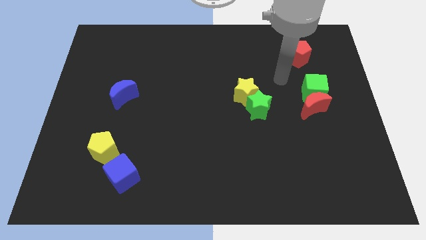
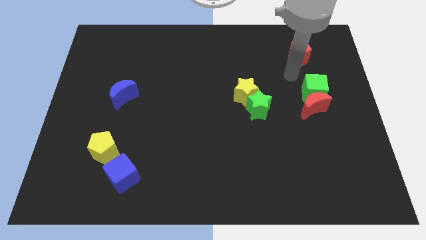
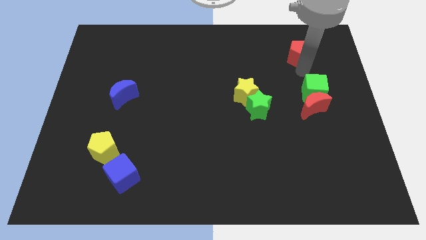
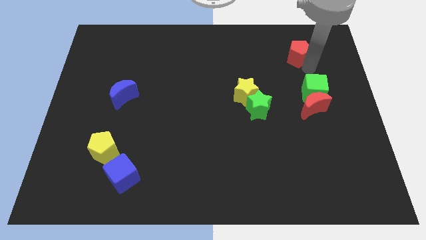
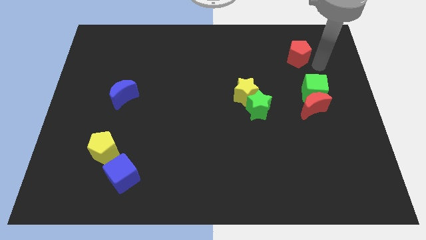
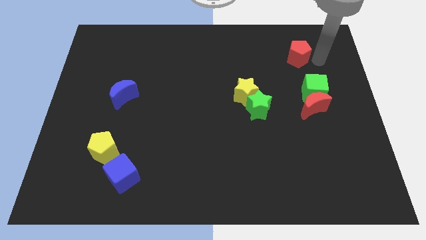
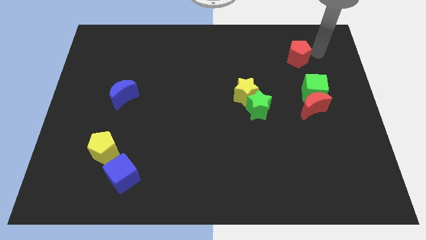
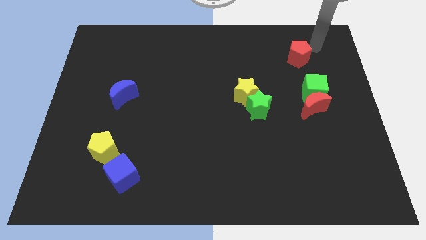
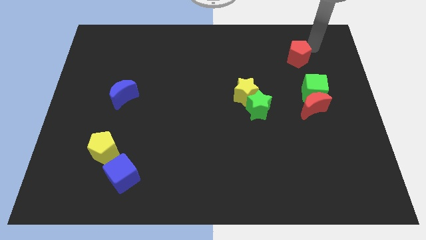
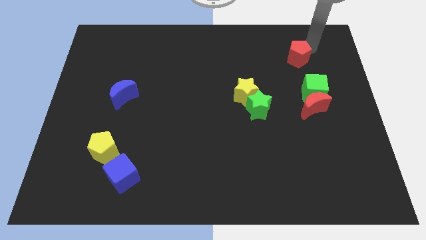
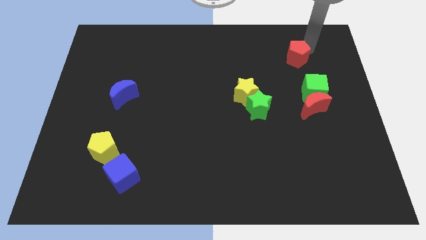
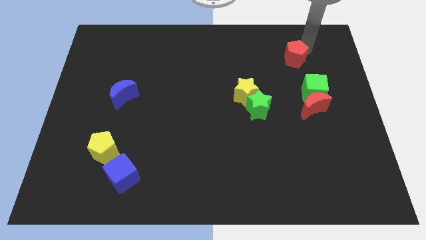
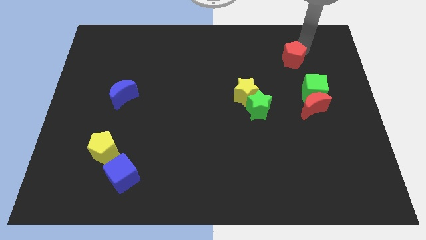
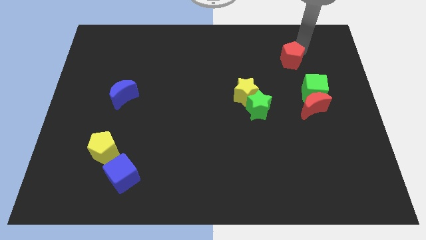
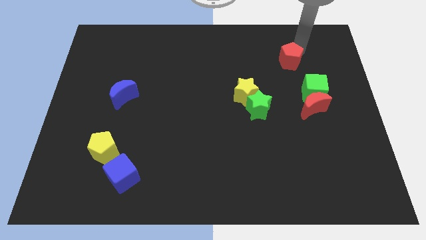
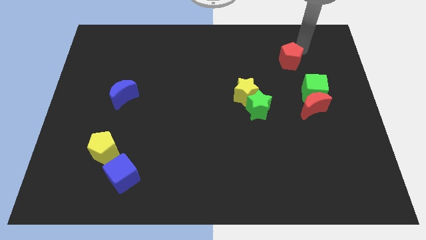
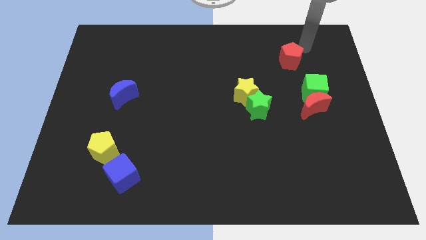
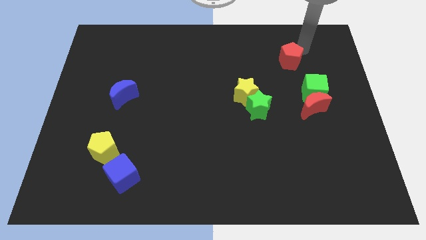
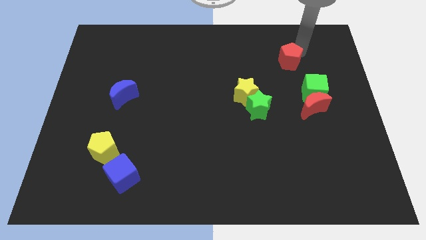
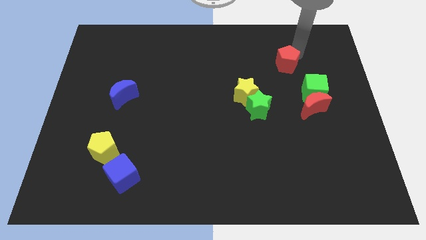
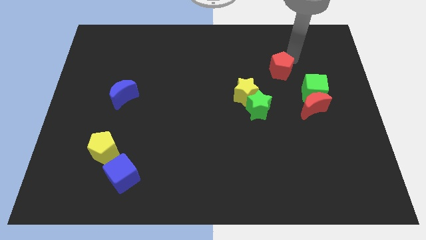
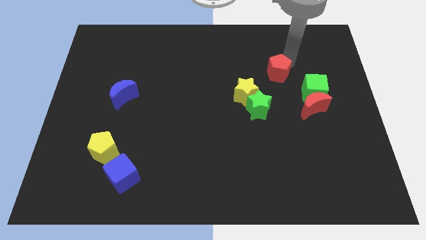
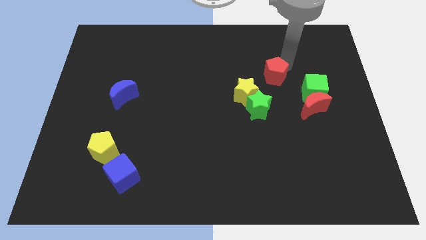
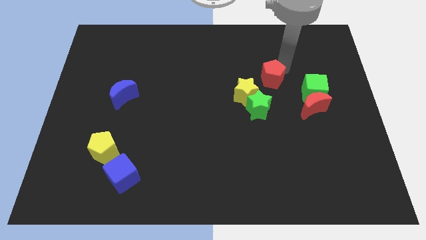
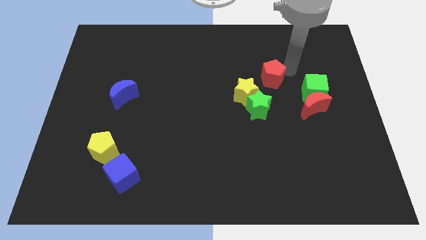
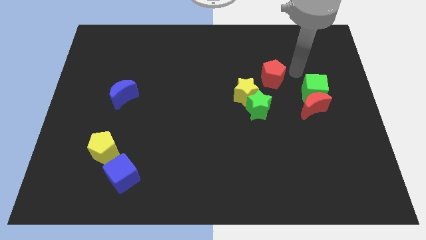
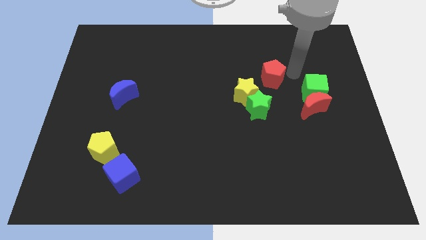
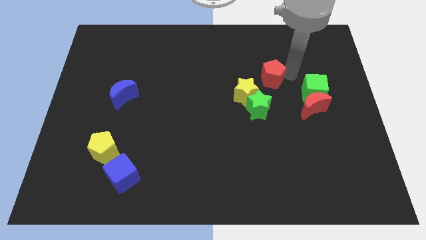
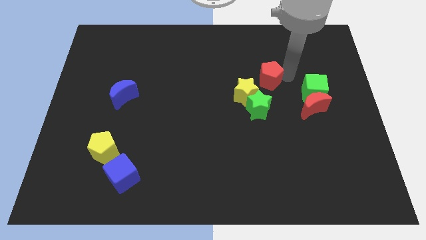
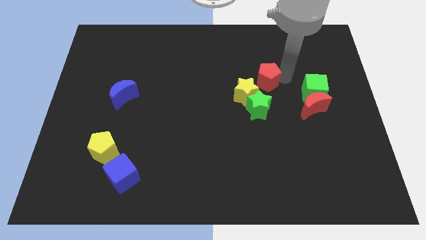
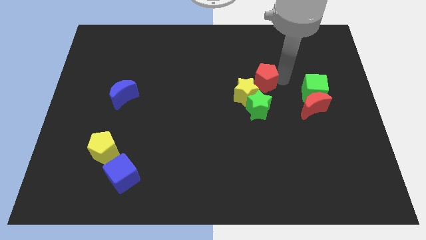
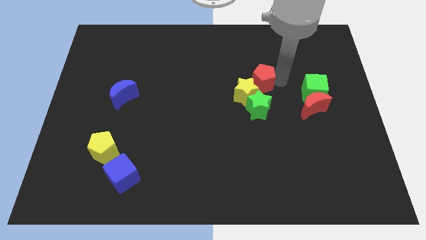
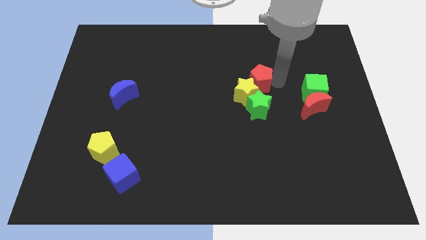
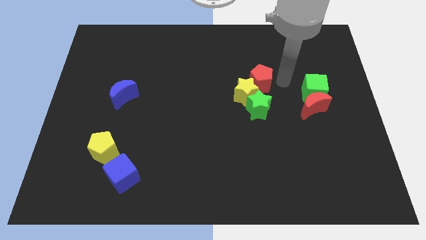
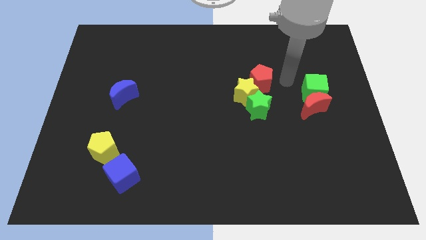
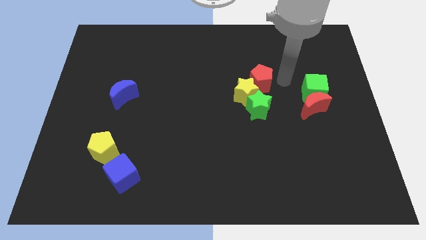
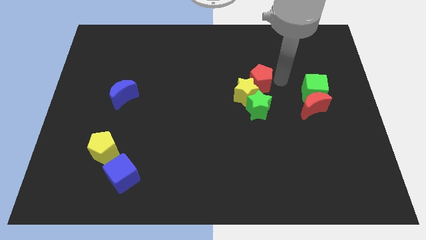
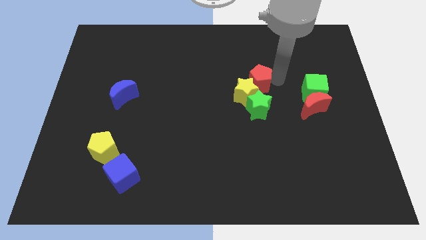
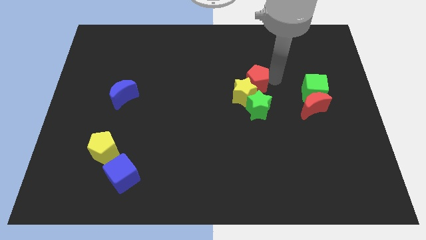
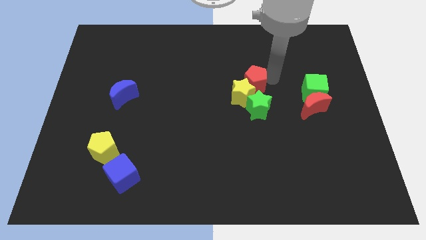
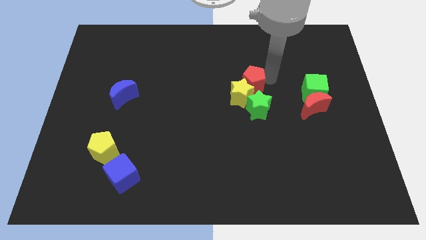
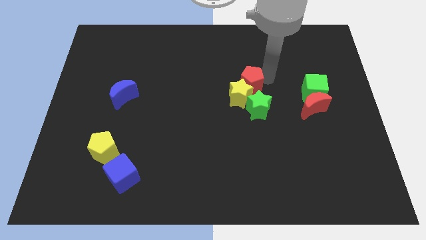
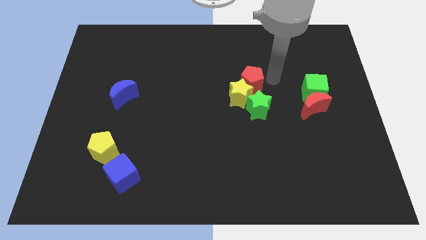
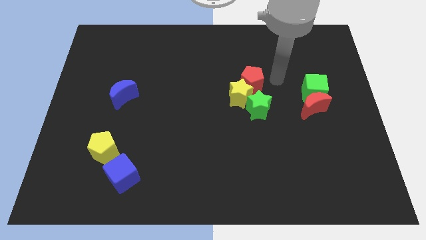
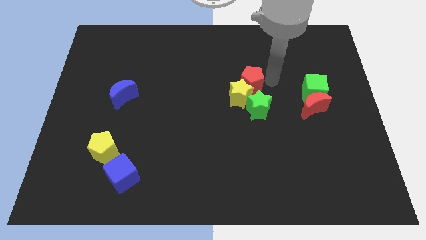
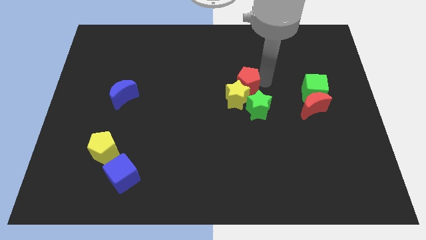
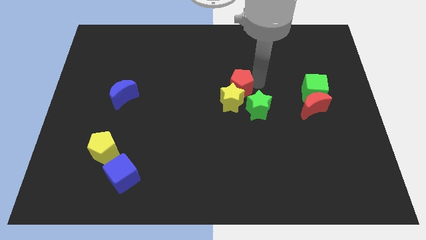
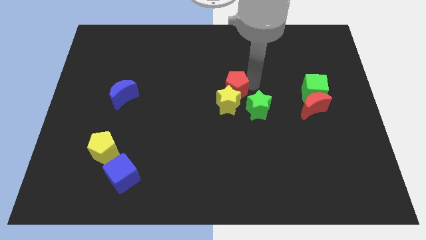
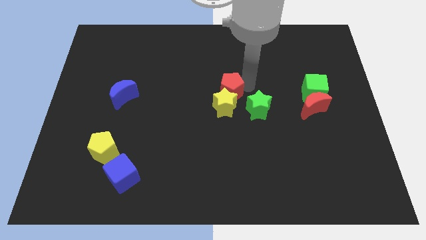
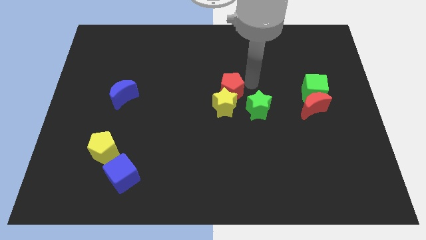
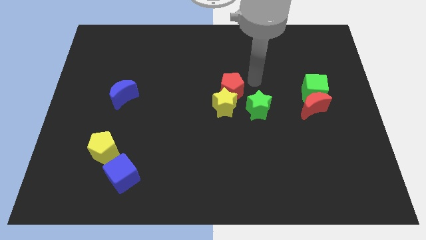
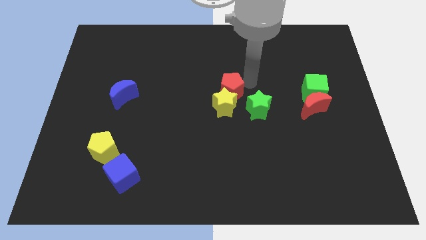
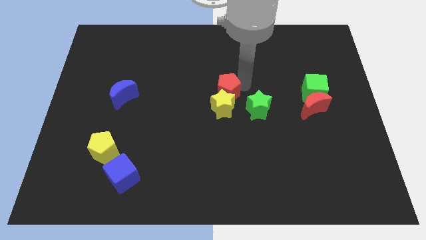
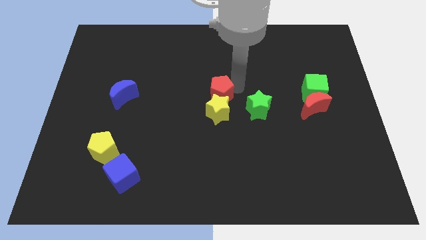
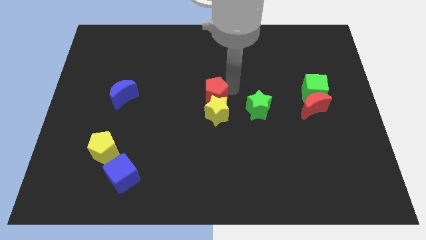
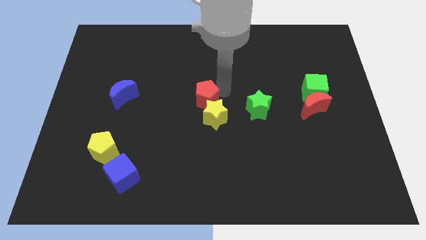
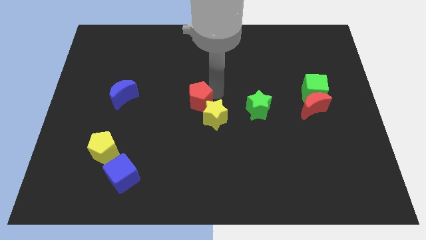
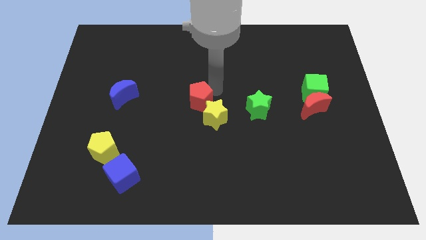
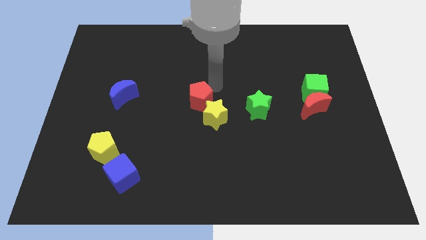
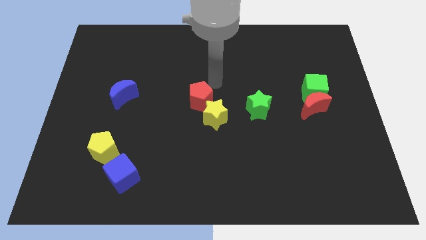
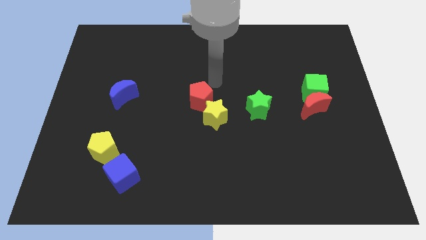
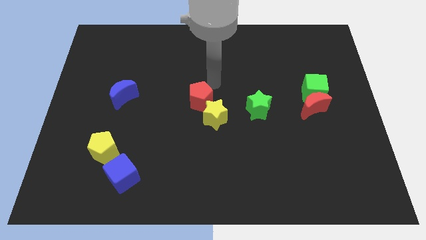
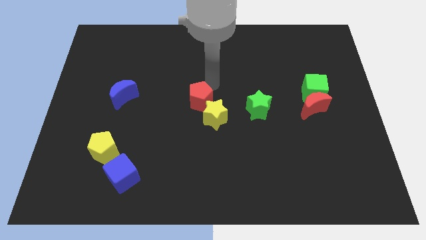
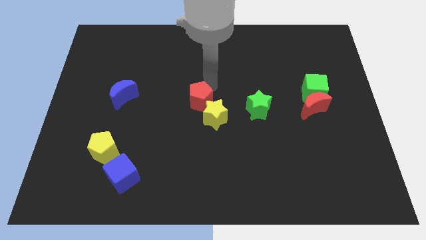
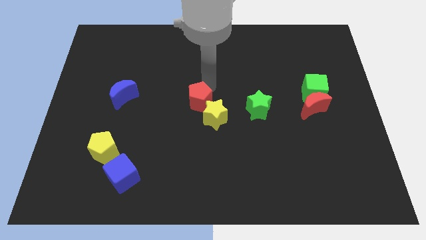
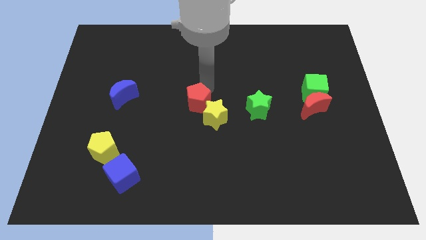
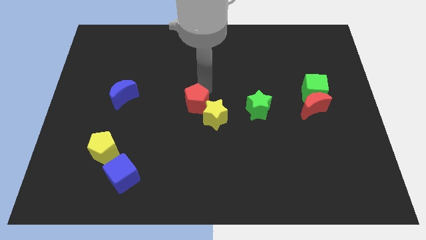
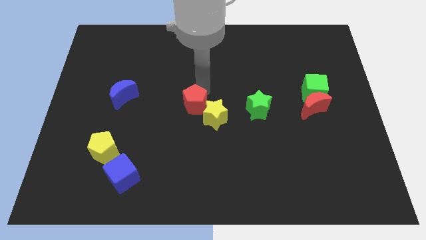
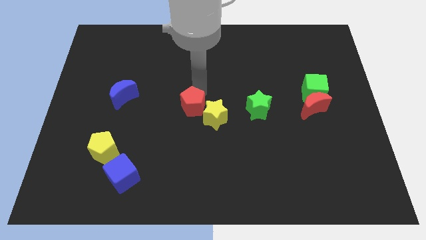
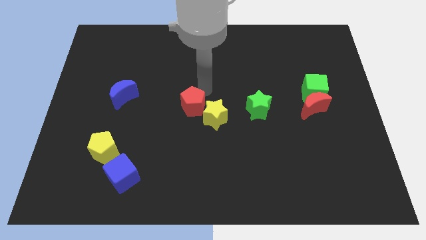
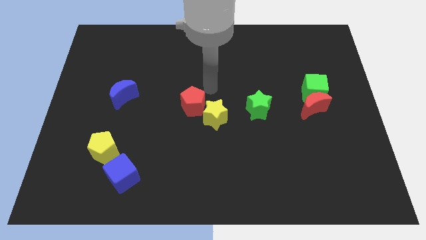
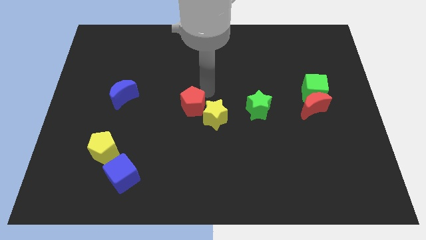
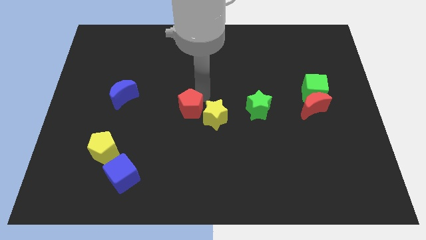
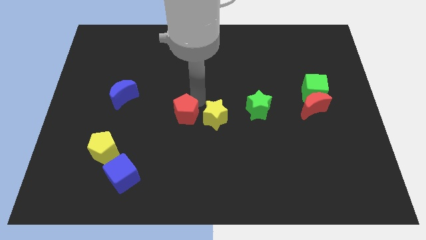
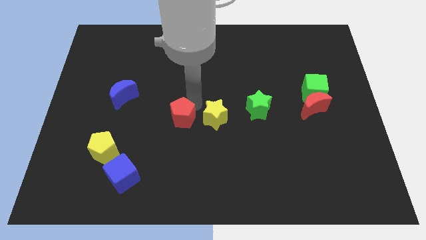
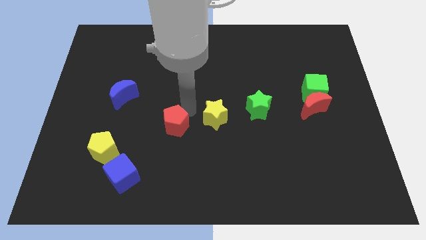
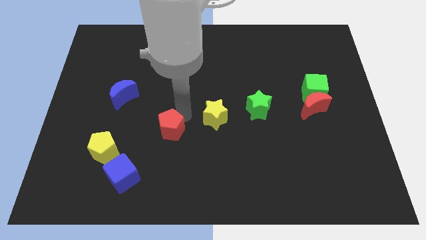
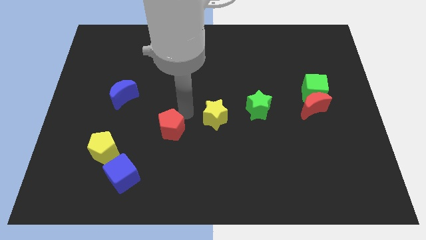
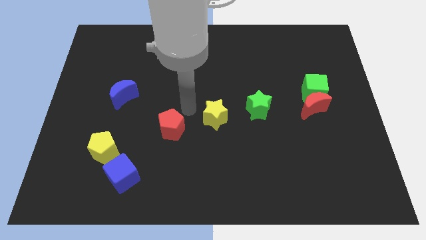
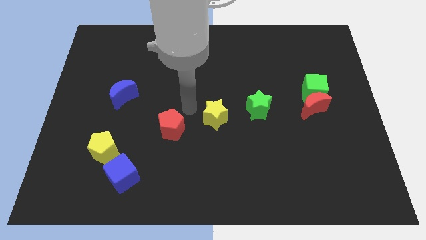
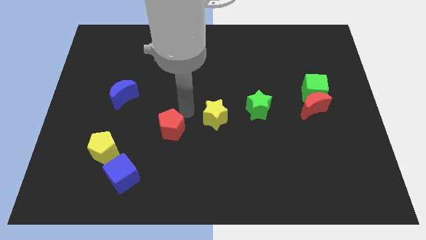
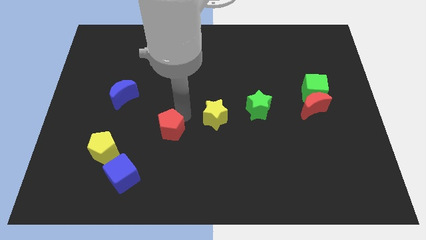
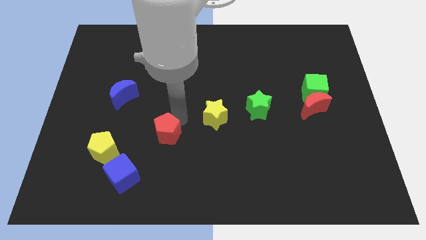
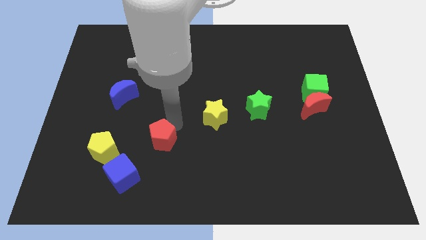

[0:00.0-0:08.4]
move the red pentagon diagonally up and to the right of the blue cube
